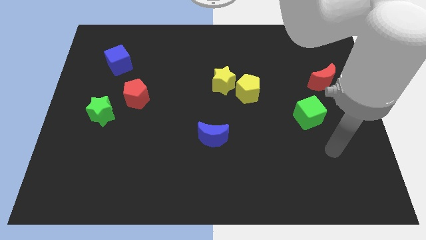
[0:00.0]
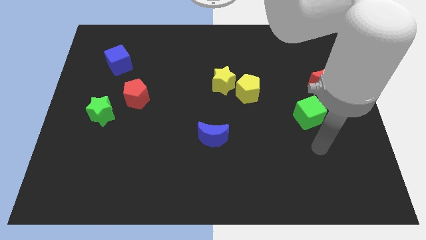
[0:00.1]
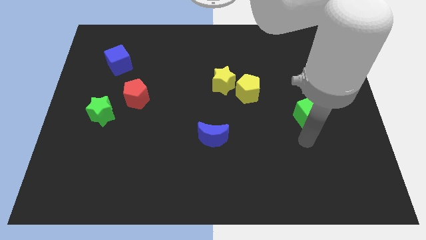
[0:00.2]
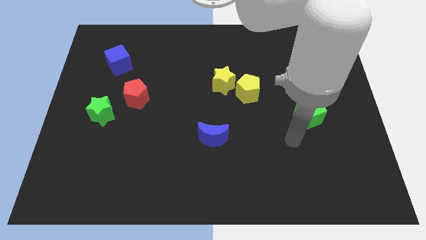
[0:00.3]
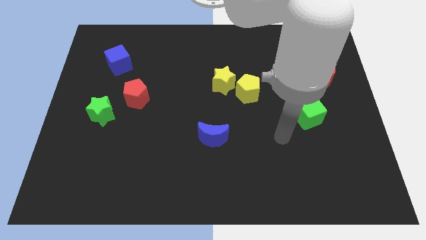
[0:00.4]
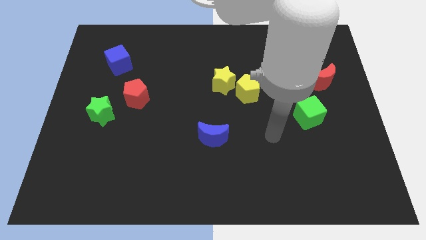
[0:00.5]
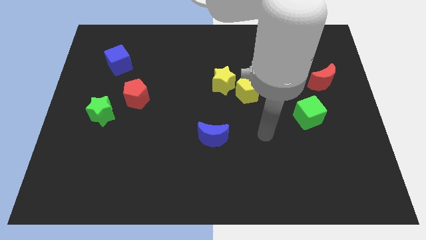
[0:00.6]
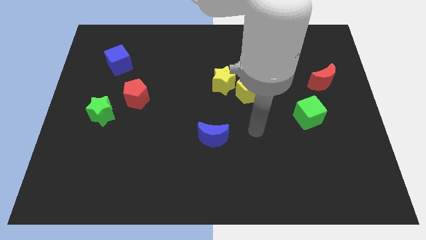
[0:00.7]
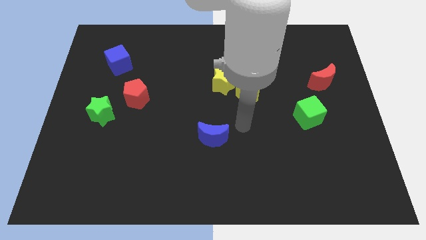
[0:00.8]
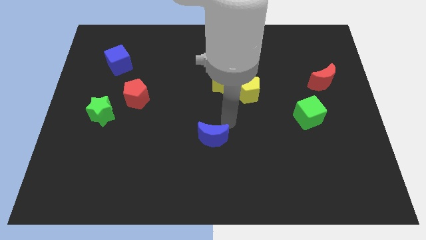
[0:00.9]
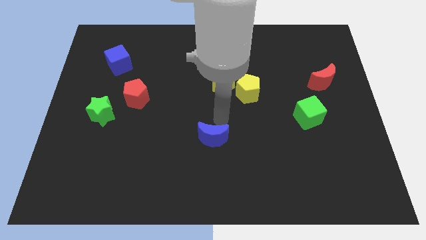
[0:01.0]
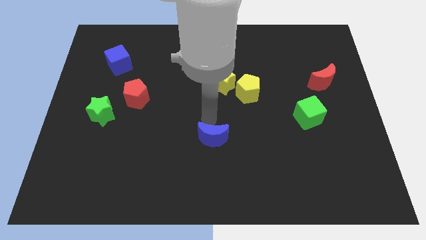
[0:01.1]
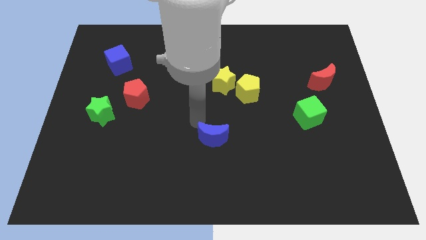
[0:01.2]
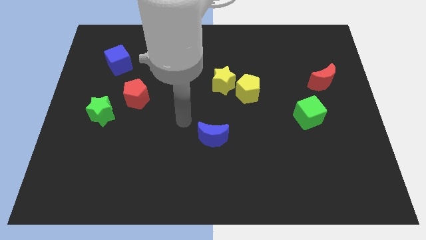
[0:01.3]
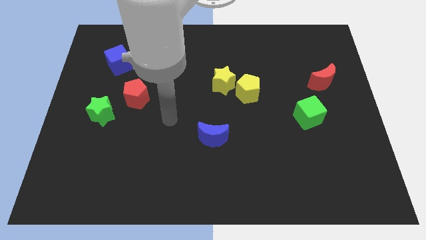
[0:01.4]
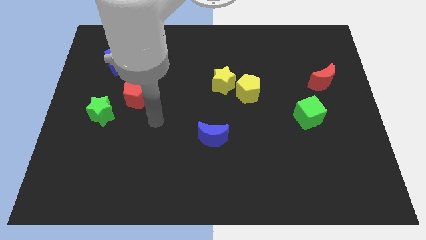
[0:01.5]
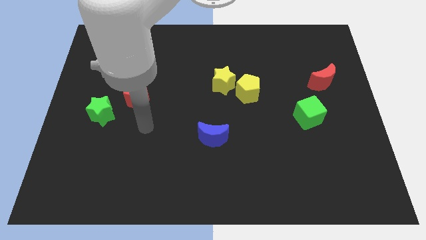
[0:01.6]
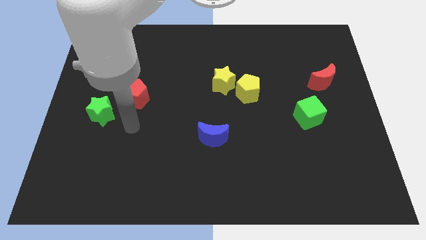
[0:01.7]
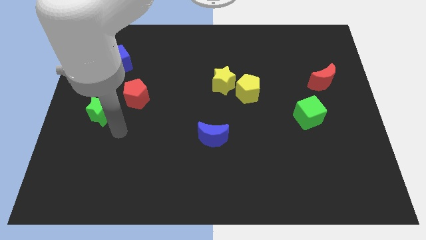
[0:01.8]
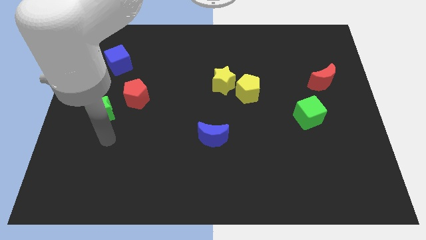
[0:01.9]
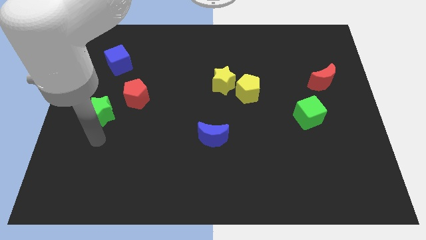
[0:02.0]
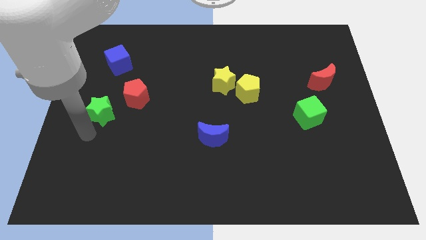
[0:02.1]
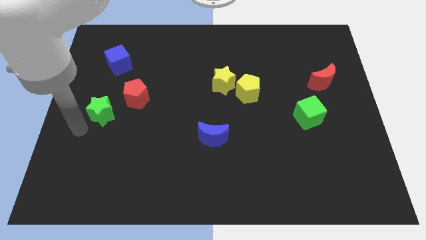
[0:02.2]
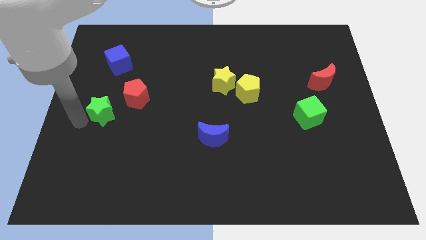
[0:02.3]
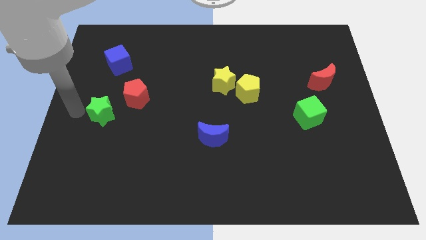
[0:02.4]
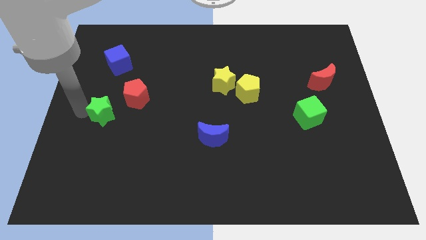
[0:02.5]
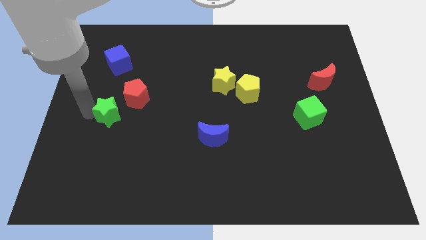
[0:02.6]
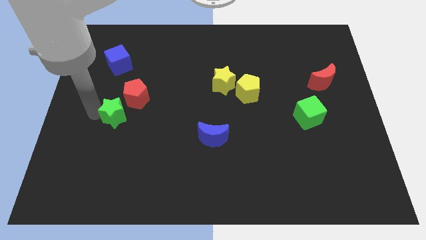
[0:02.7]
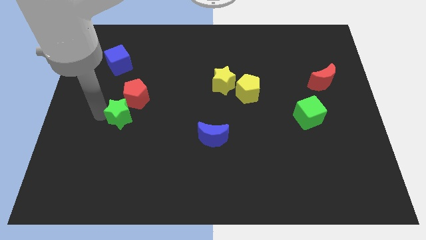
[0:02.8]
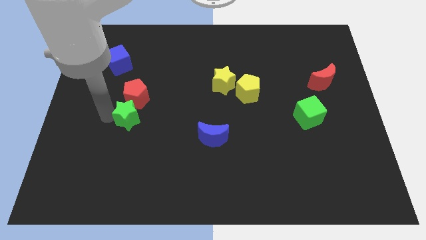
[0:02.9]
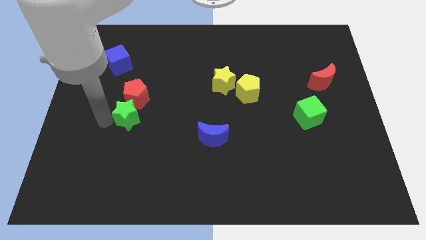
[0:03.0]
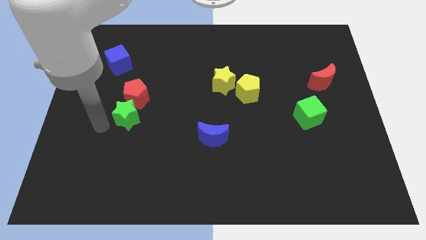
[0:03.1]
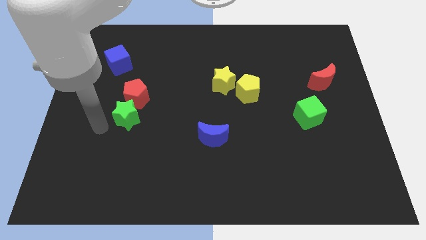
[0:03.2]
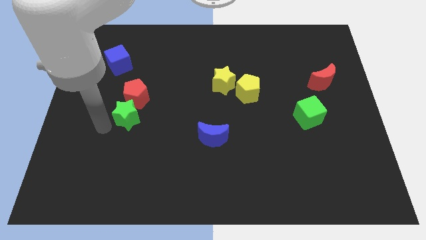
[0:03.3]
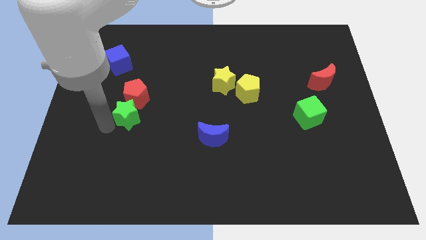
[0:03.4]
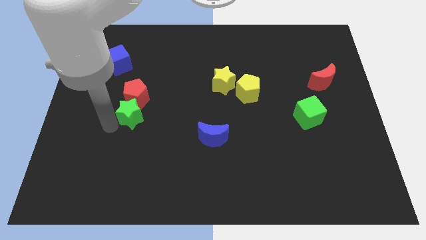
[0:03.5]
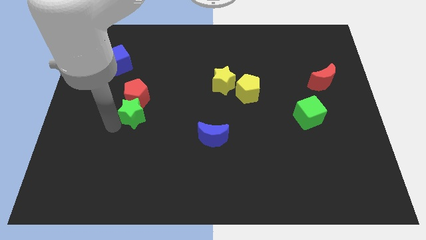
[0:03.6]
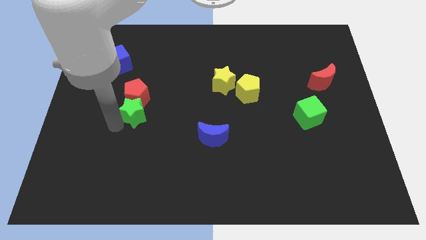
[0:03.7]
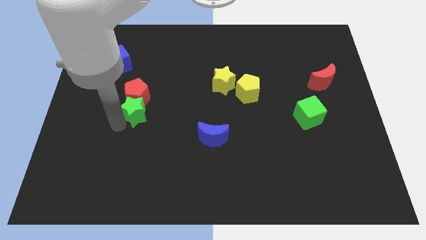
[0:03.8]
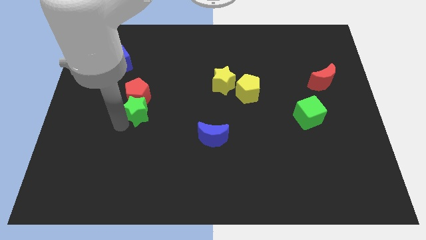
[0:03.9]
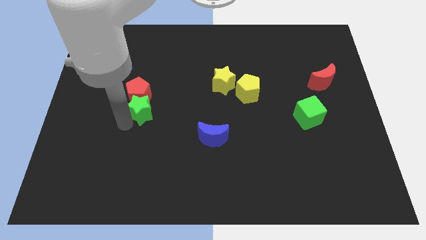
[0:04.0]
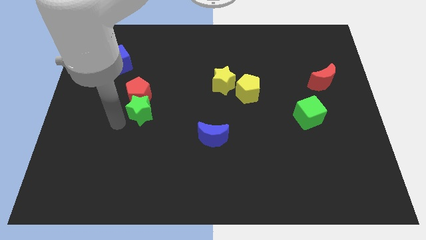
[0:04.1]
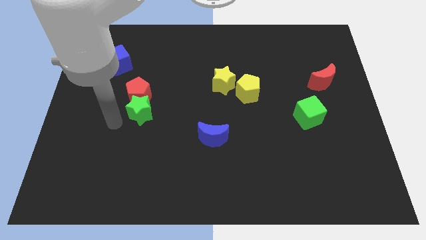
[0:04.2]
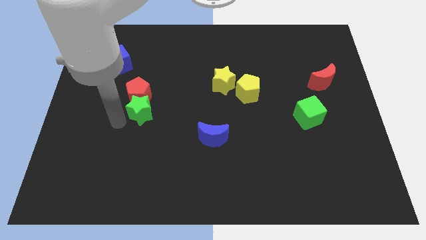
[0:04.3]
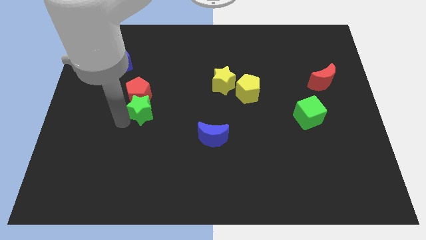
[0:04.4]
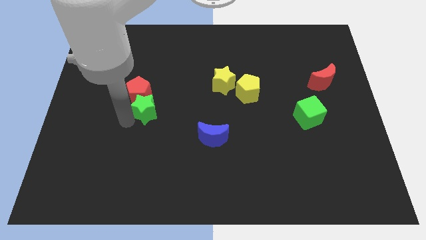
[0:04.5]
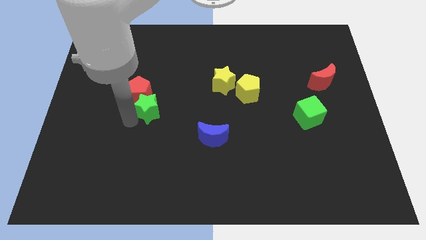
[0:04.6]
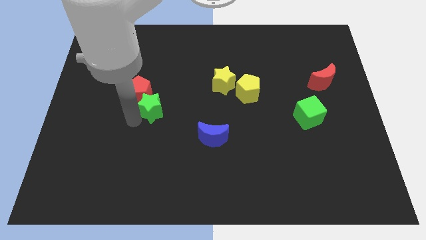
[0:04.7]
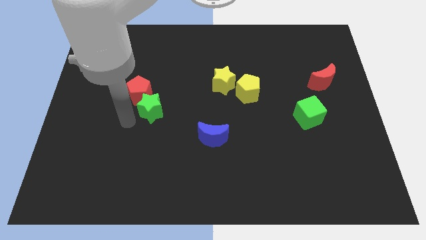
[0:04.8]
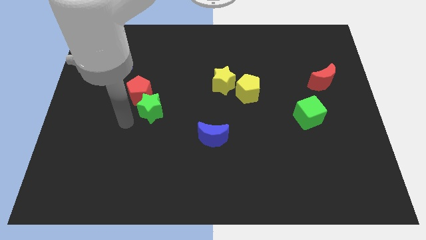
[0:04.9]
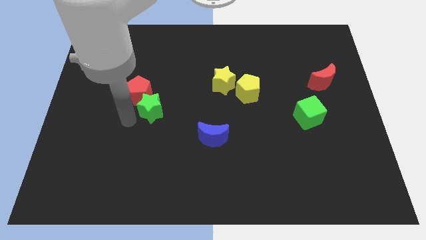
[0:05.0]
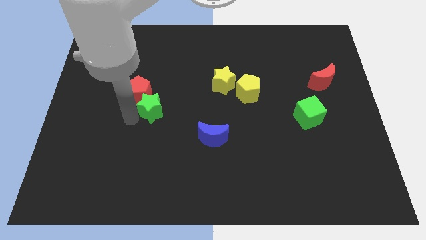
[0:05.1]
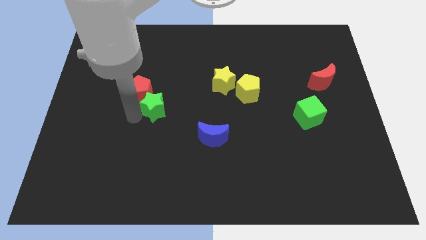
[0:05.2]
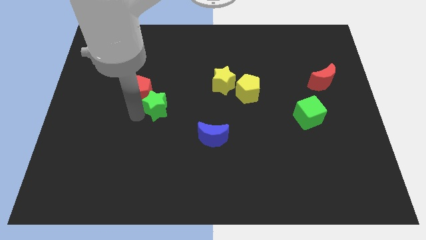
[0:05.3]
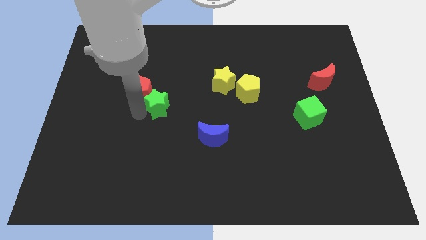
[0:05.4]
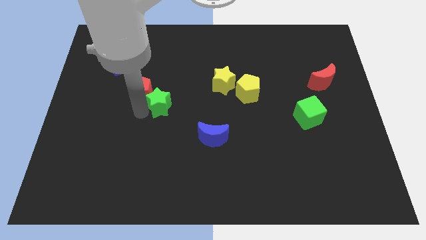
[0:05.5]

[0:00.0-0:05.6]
put the green star to the middle

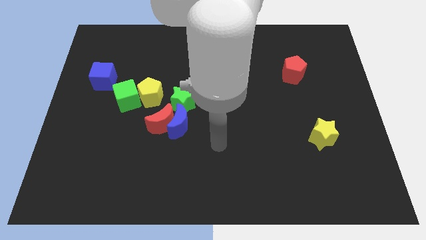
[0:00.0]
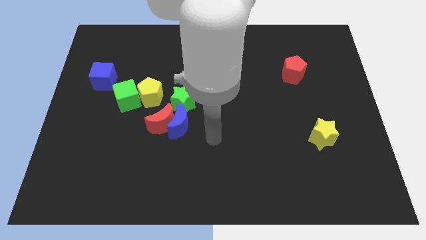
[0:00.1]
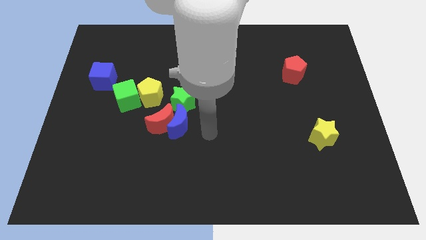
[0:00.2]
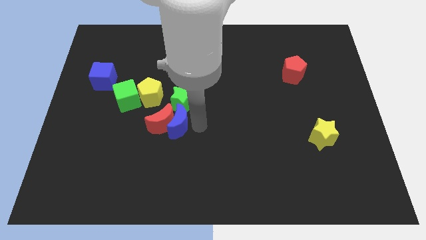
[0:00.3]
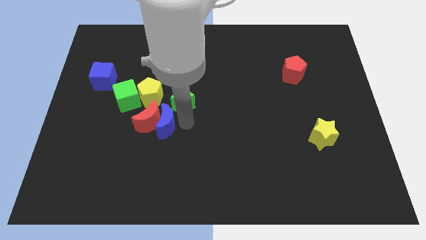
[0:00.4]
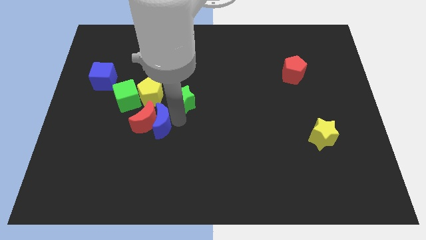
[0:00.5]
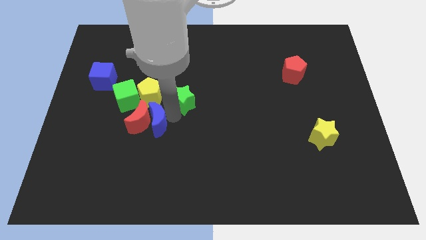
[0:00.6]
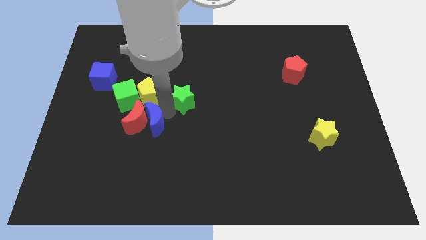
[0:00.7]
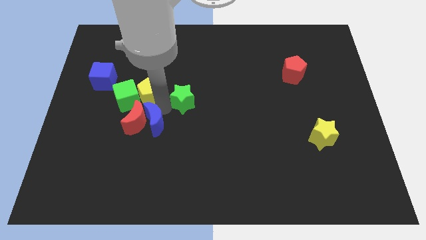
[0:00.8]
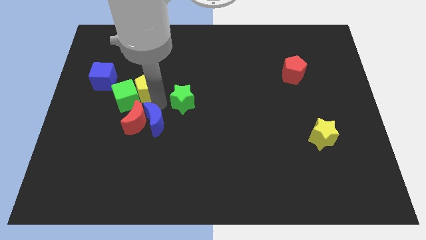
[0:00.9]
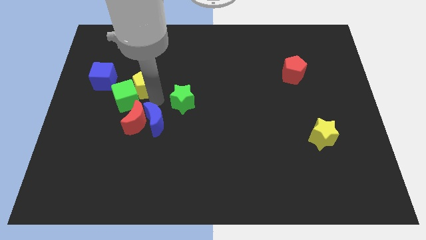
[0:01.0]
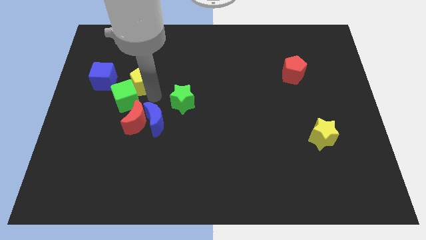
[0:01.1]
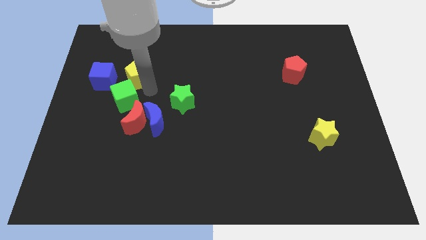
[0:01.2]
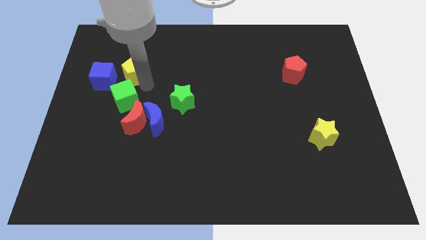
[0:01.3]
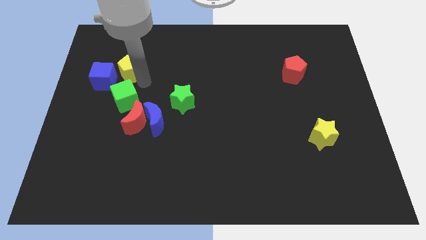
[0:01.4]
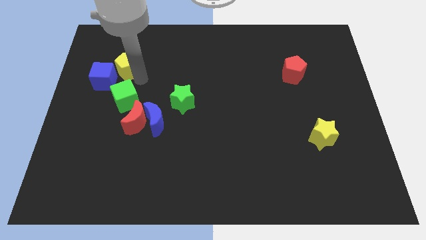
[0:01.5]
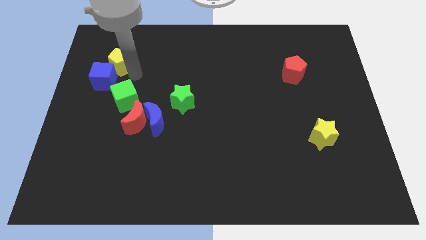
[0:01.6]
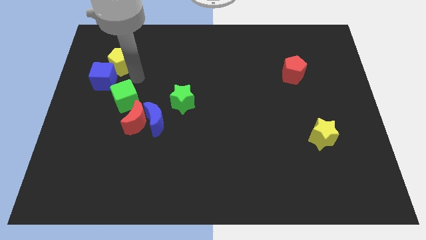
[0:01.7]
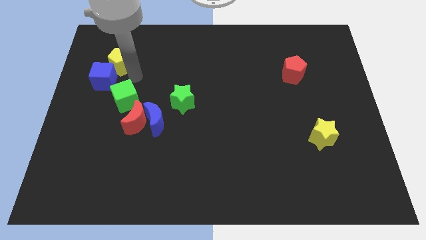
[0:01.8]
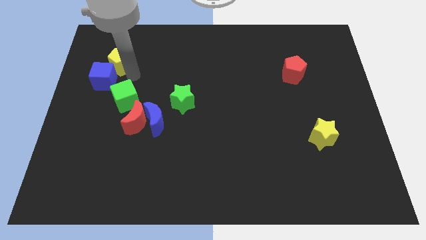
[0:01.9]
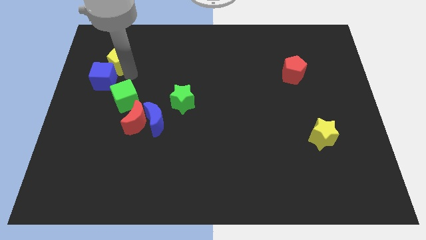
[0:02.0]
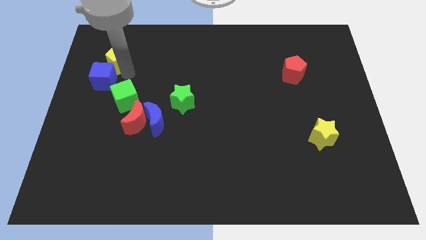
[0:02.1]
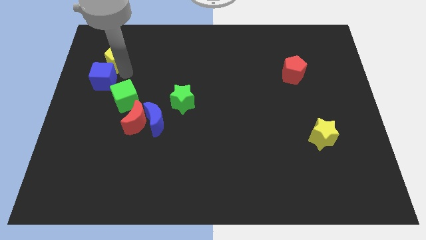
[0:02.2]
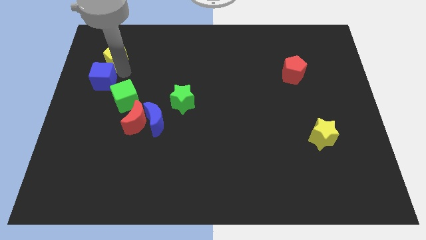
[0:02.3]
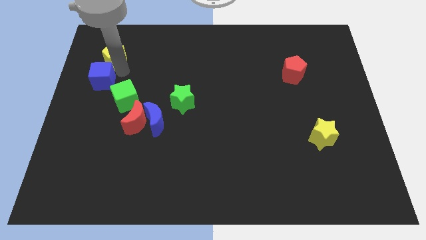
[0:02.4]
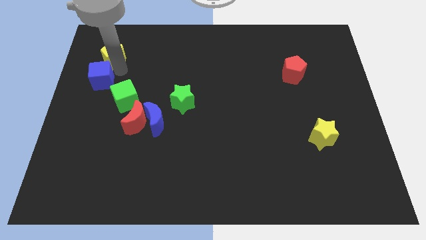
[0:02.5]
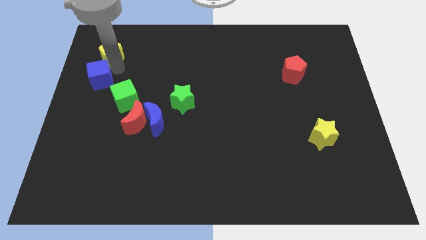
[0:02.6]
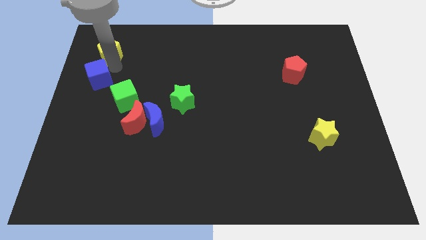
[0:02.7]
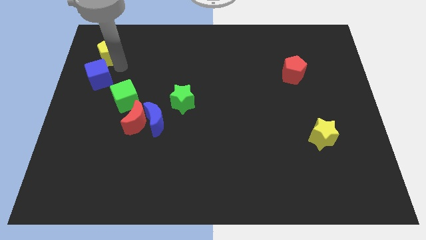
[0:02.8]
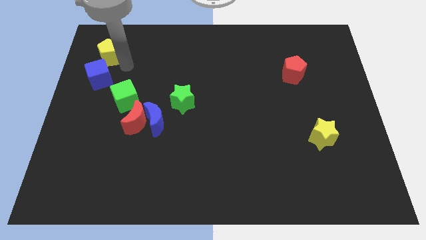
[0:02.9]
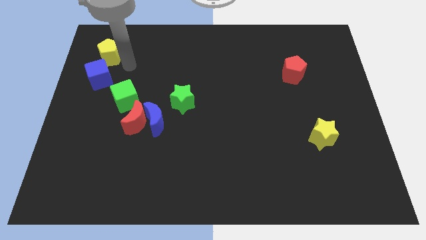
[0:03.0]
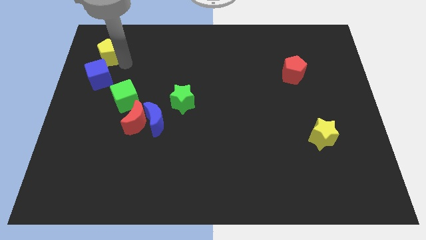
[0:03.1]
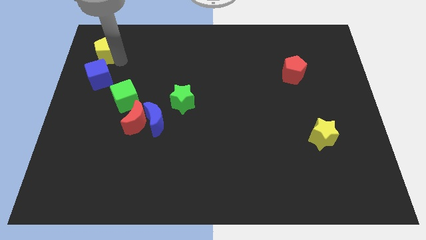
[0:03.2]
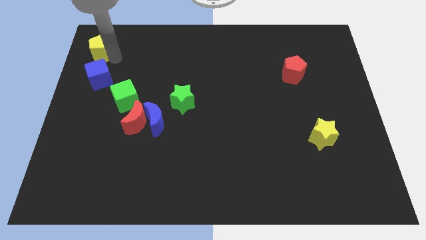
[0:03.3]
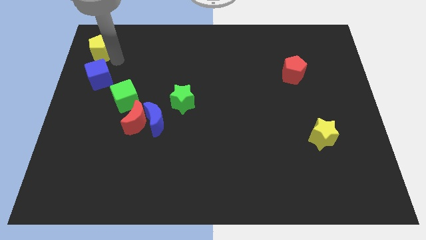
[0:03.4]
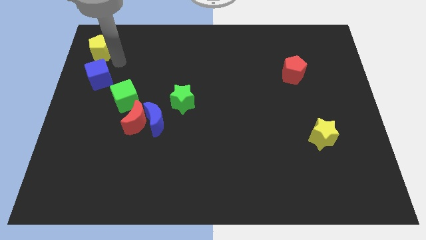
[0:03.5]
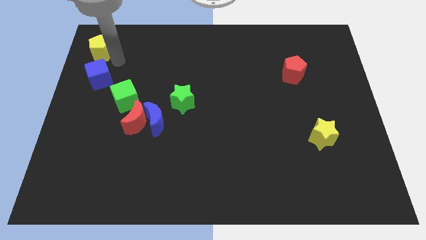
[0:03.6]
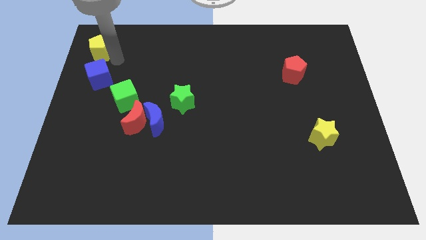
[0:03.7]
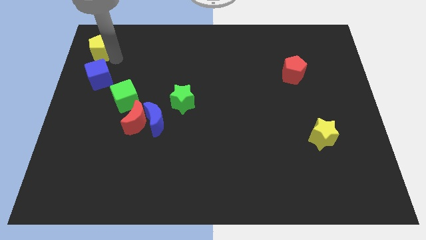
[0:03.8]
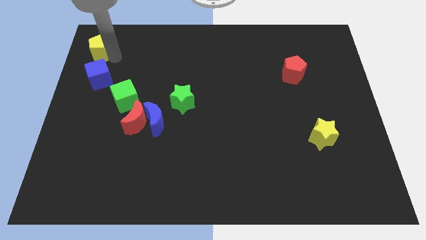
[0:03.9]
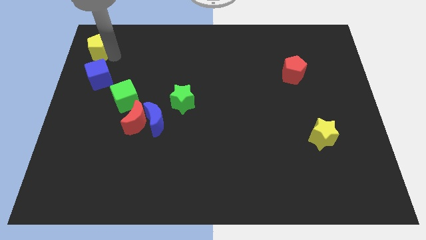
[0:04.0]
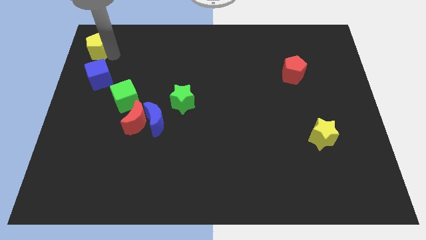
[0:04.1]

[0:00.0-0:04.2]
move the yellow pentagon to the top left
